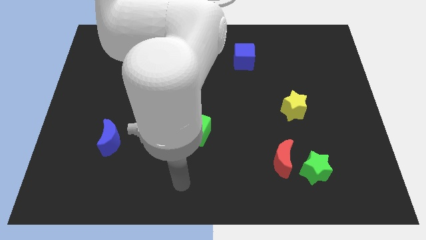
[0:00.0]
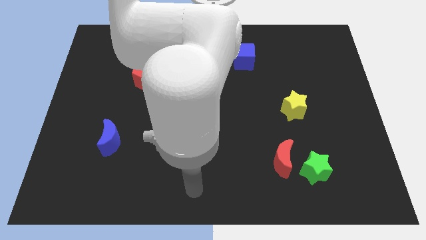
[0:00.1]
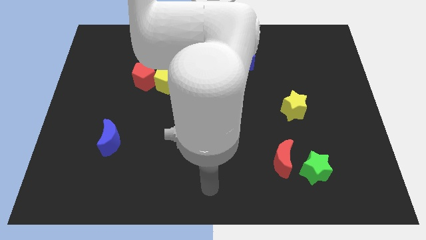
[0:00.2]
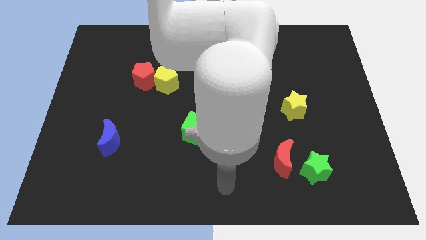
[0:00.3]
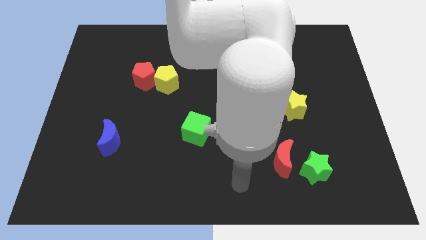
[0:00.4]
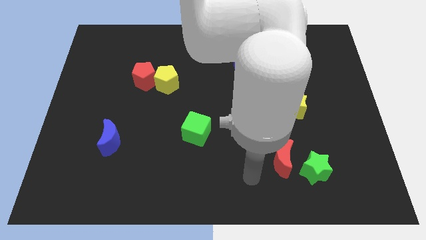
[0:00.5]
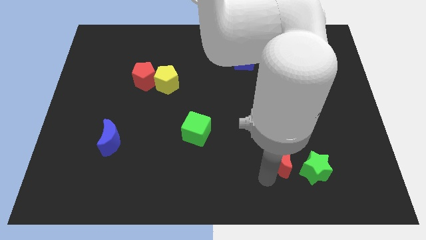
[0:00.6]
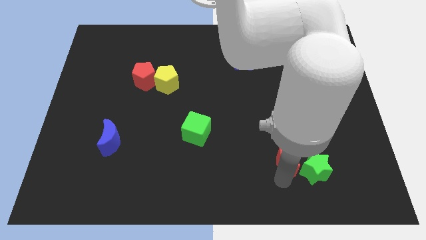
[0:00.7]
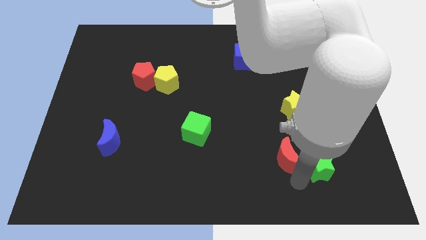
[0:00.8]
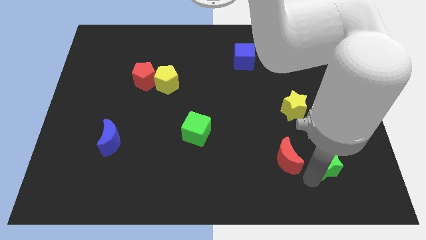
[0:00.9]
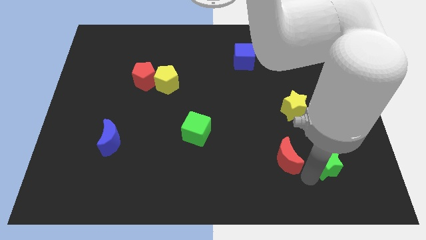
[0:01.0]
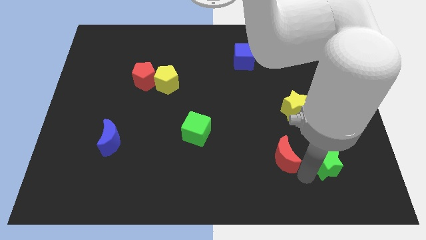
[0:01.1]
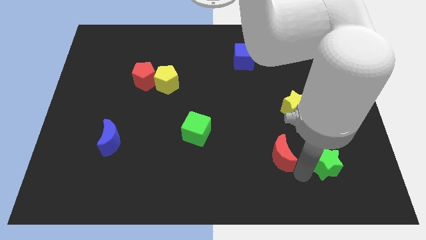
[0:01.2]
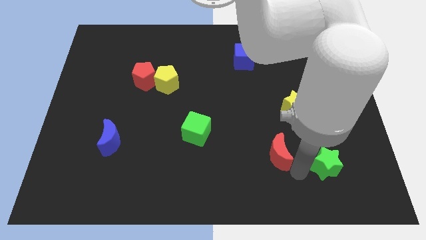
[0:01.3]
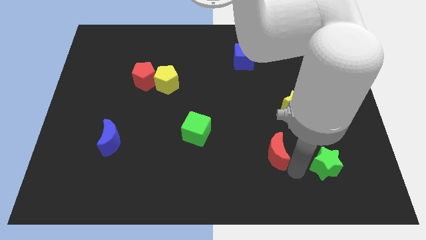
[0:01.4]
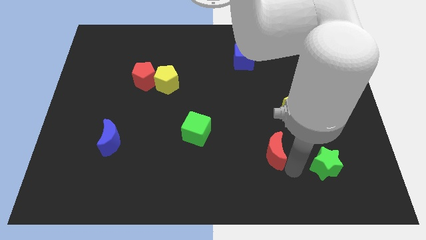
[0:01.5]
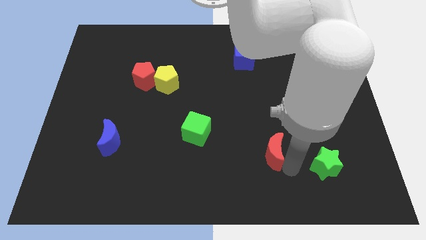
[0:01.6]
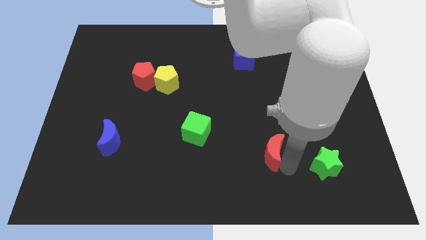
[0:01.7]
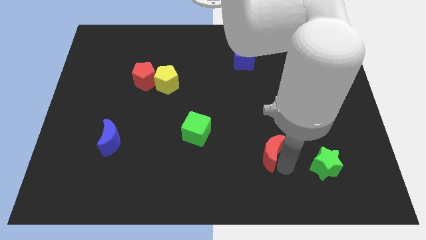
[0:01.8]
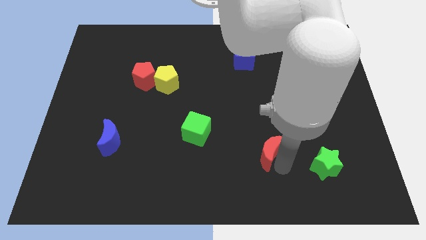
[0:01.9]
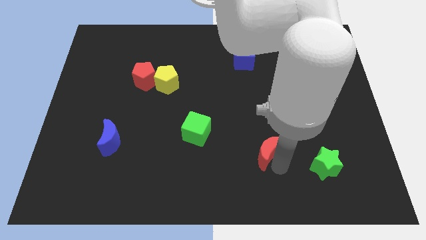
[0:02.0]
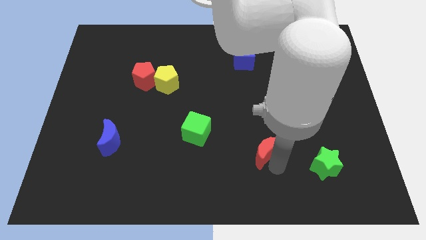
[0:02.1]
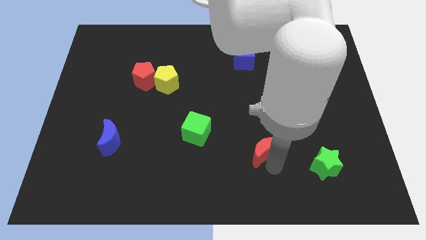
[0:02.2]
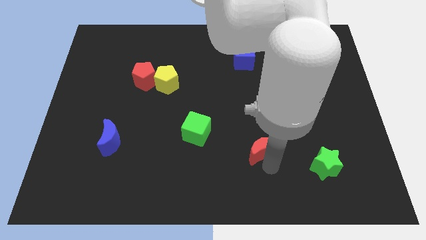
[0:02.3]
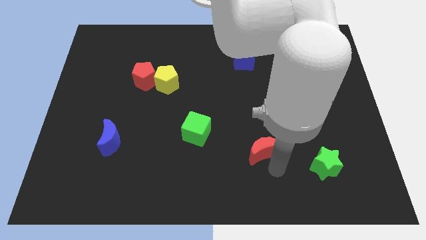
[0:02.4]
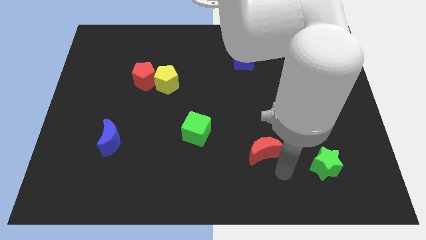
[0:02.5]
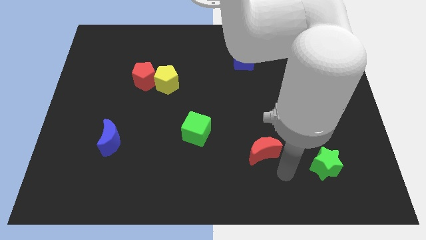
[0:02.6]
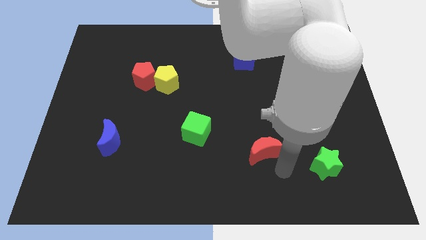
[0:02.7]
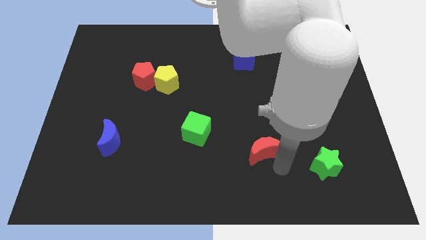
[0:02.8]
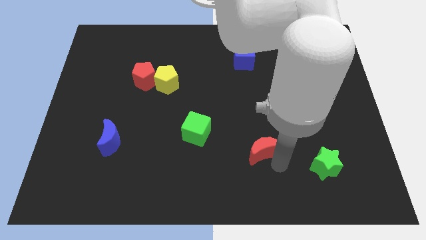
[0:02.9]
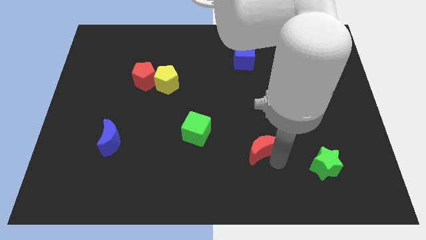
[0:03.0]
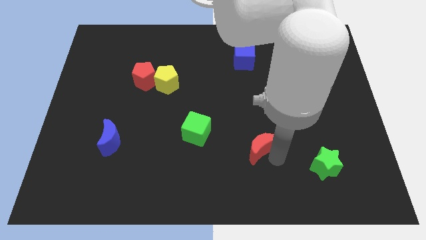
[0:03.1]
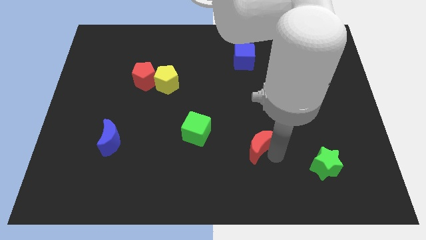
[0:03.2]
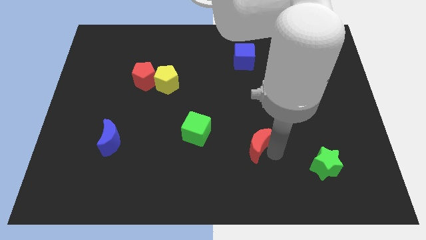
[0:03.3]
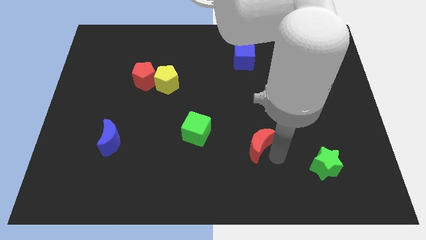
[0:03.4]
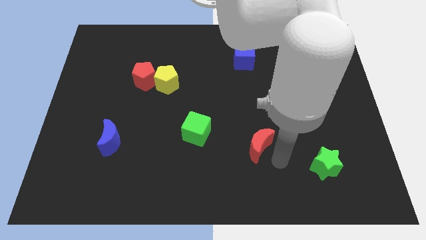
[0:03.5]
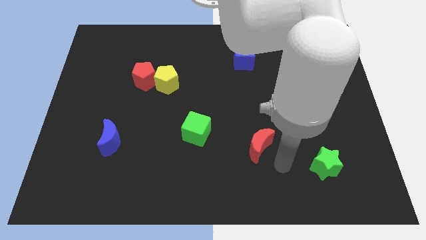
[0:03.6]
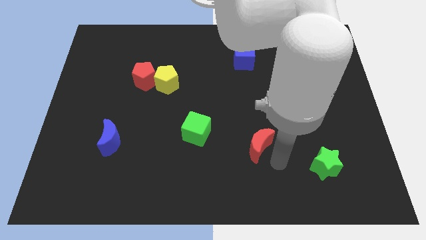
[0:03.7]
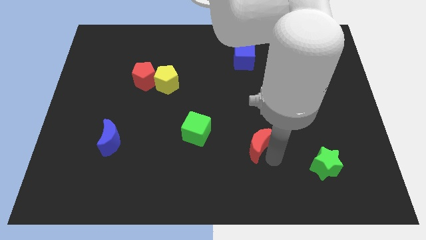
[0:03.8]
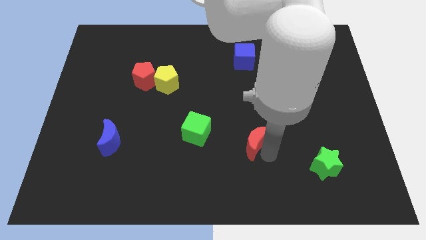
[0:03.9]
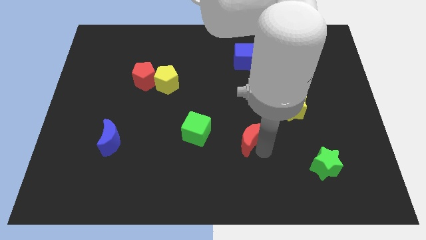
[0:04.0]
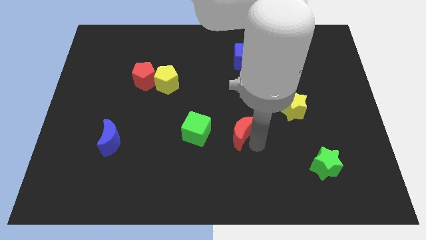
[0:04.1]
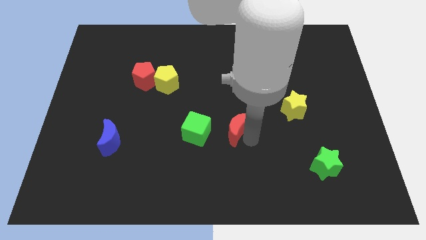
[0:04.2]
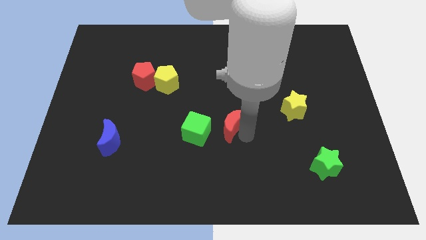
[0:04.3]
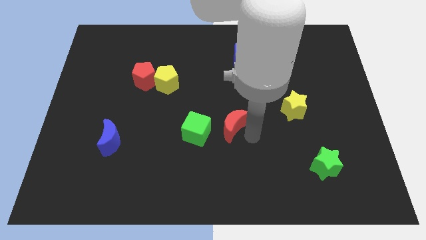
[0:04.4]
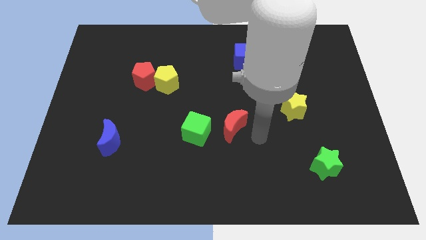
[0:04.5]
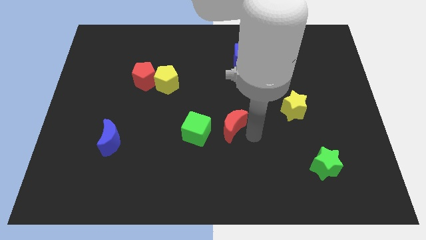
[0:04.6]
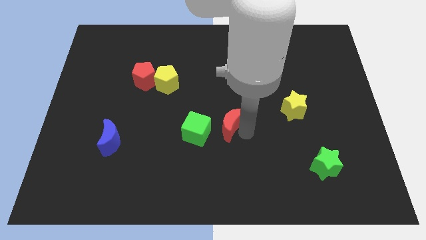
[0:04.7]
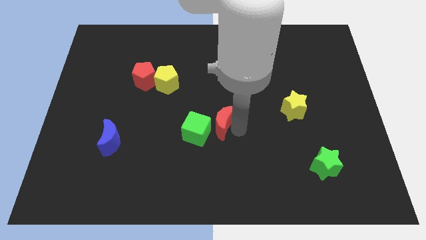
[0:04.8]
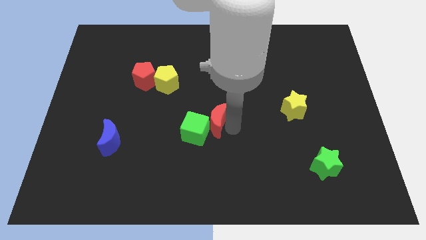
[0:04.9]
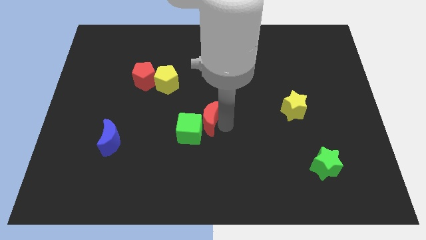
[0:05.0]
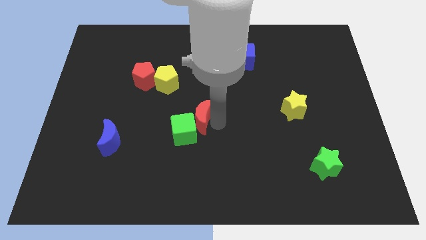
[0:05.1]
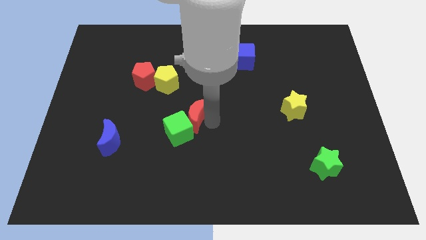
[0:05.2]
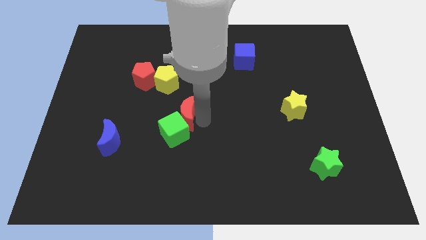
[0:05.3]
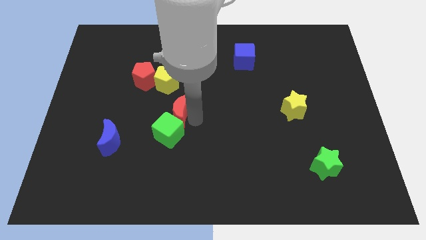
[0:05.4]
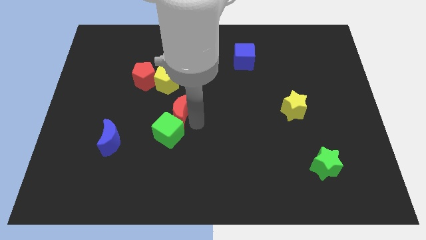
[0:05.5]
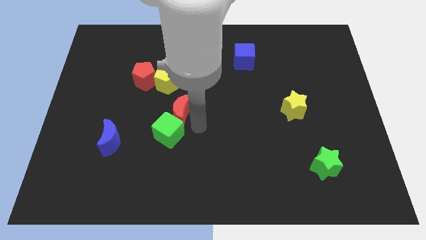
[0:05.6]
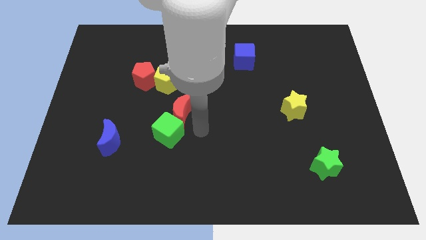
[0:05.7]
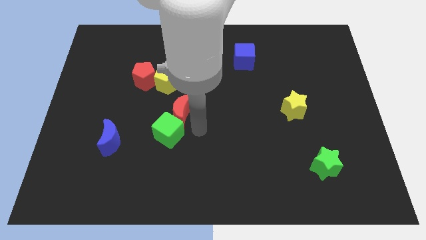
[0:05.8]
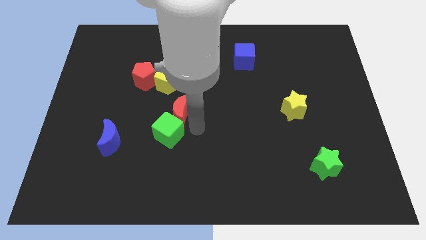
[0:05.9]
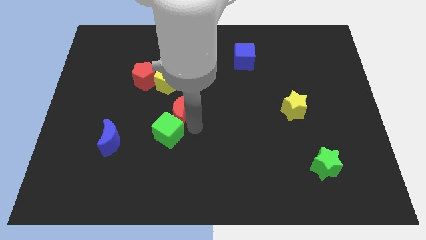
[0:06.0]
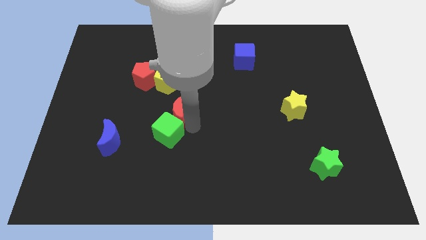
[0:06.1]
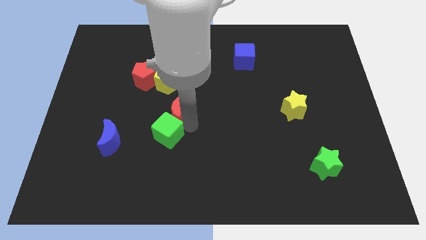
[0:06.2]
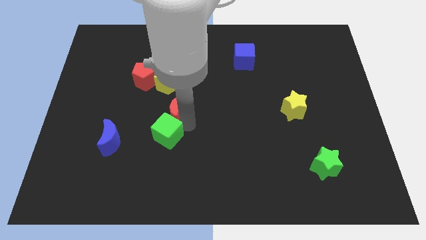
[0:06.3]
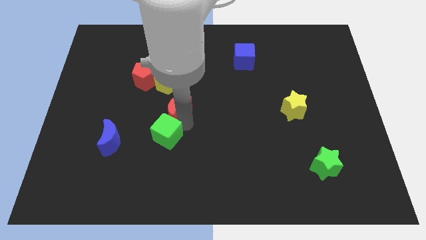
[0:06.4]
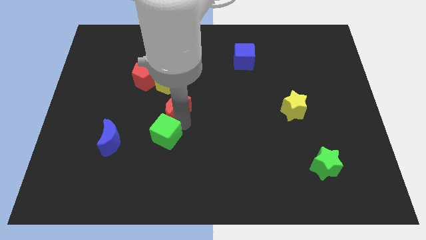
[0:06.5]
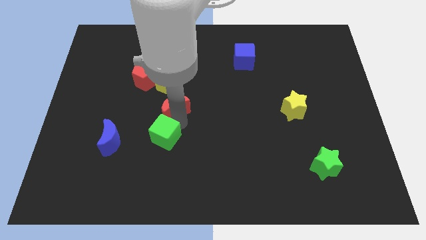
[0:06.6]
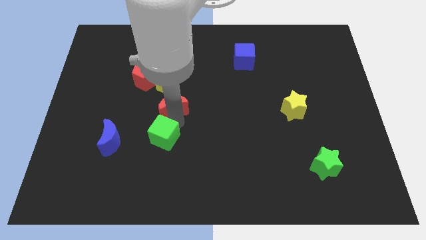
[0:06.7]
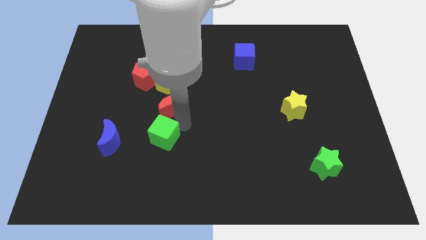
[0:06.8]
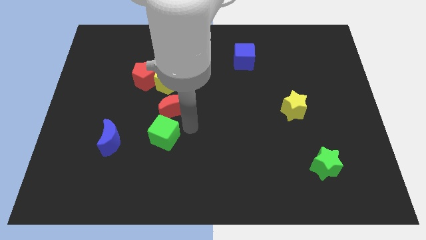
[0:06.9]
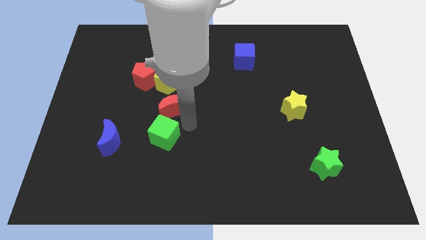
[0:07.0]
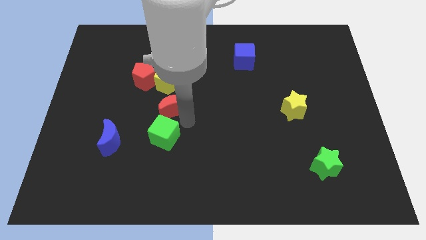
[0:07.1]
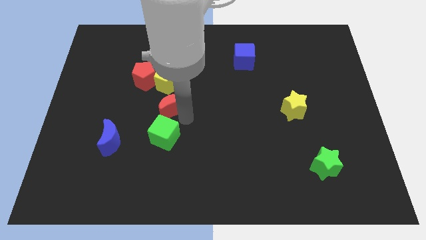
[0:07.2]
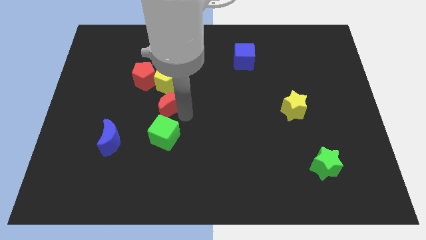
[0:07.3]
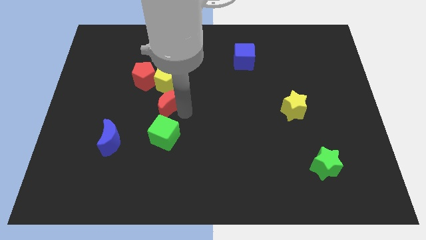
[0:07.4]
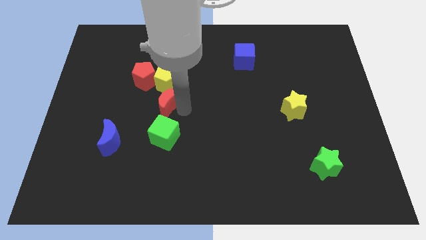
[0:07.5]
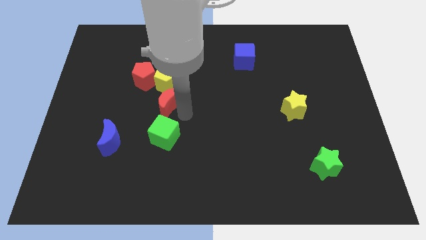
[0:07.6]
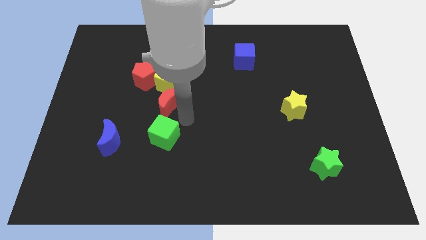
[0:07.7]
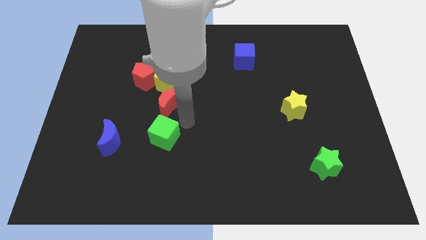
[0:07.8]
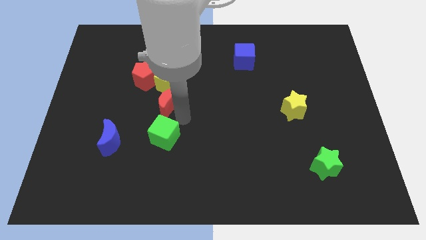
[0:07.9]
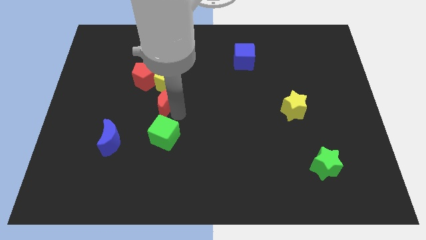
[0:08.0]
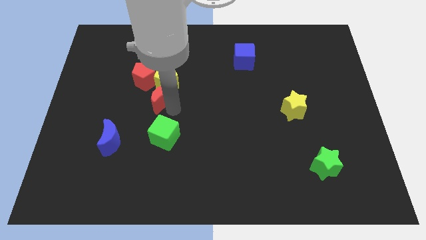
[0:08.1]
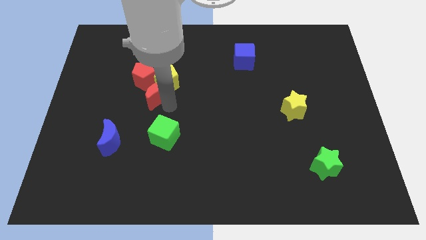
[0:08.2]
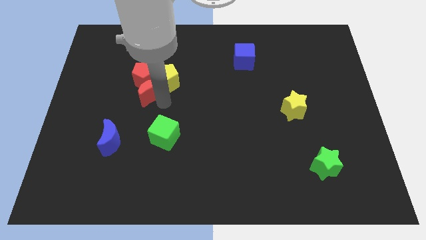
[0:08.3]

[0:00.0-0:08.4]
slide the red moon next to the red pentagon
